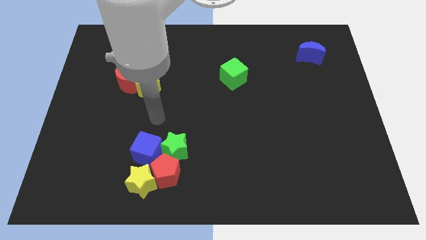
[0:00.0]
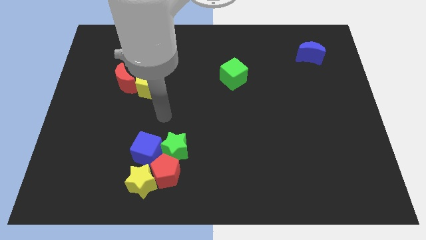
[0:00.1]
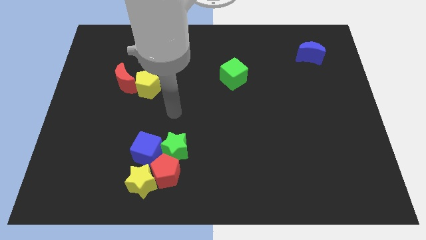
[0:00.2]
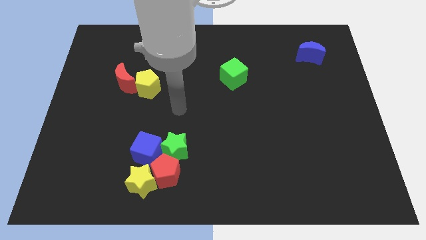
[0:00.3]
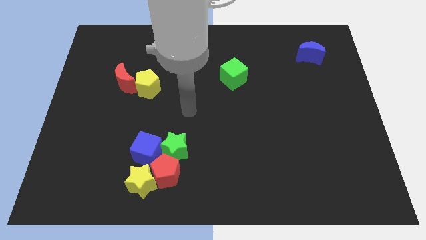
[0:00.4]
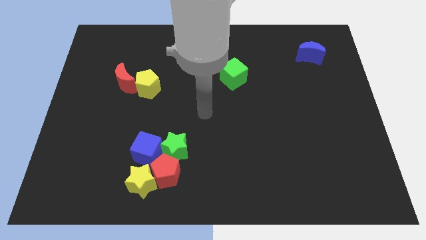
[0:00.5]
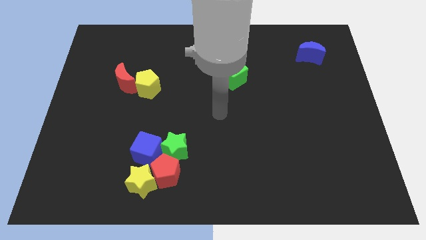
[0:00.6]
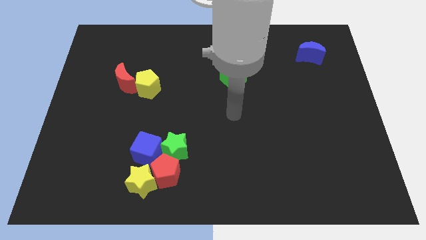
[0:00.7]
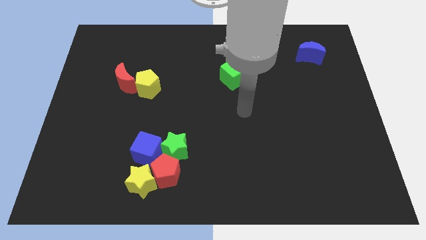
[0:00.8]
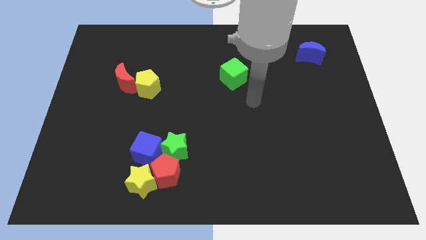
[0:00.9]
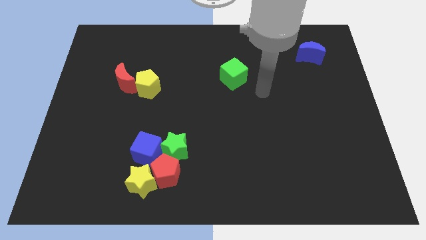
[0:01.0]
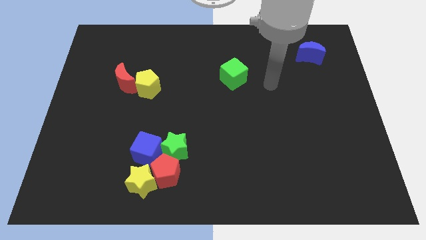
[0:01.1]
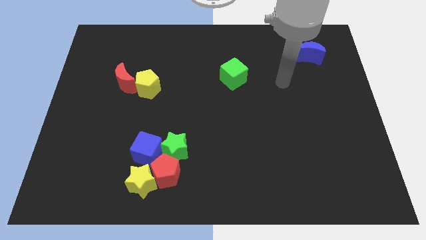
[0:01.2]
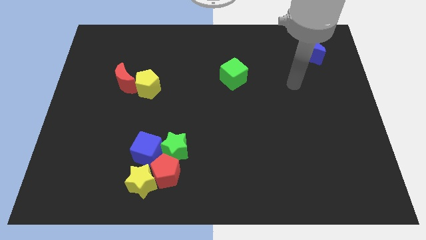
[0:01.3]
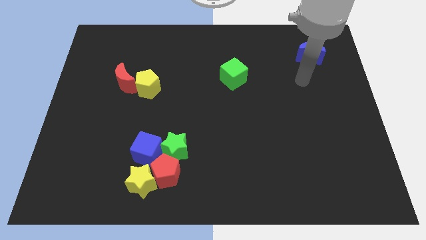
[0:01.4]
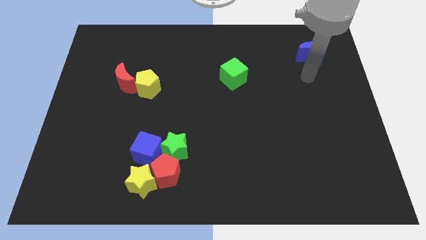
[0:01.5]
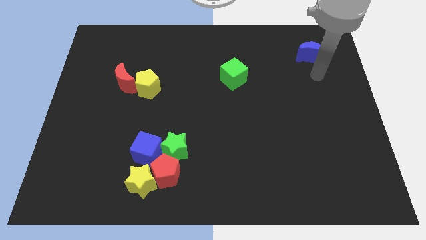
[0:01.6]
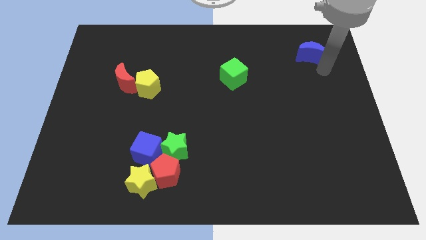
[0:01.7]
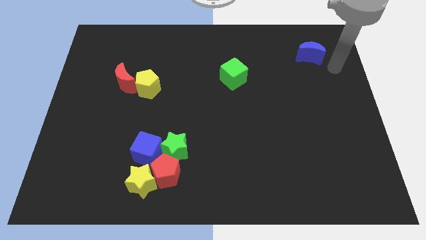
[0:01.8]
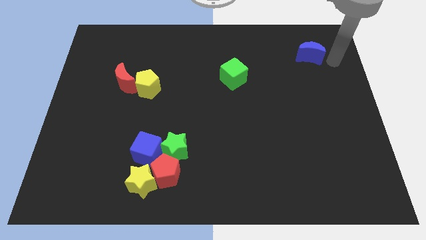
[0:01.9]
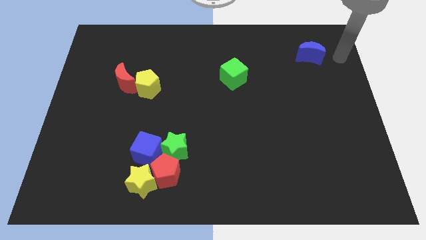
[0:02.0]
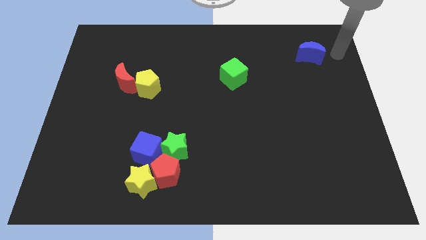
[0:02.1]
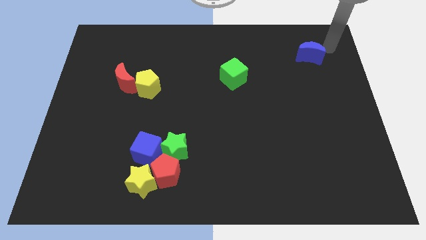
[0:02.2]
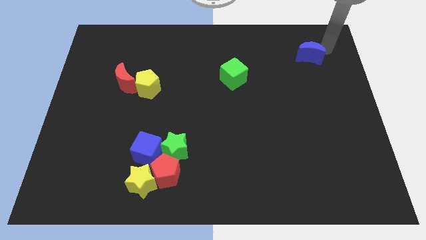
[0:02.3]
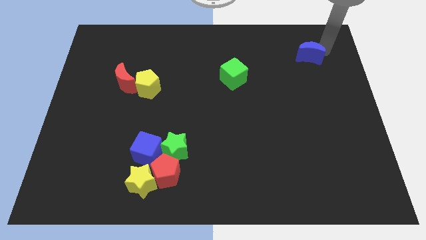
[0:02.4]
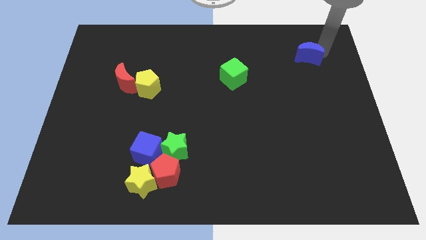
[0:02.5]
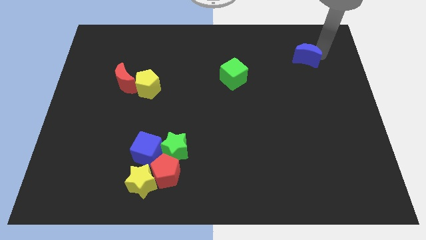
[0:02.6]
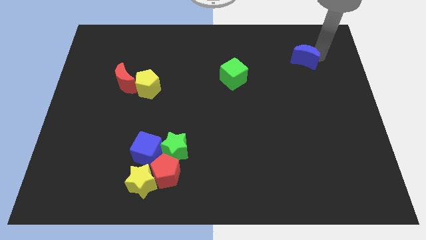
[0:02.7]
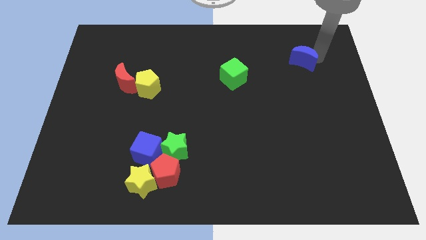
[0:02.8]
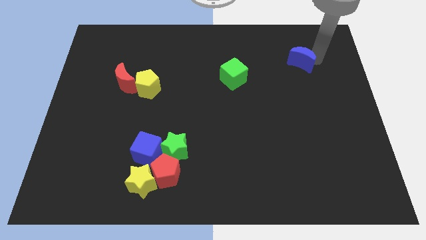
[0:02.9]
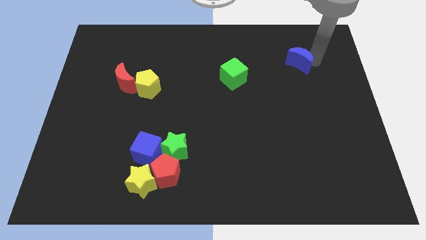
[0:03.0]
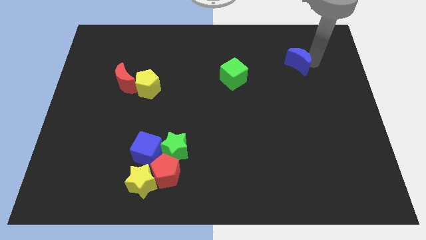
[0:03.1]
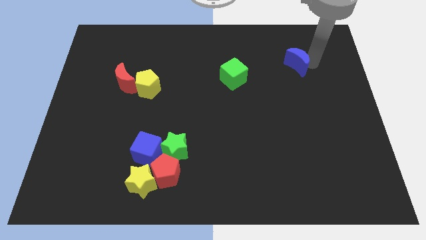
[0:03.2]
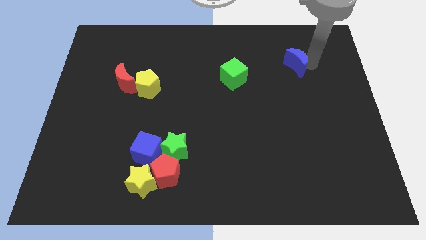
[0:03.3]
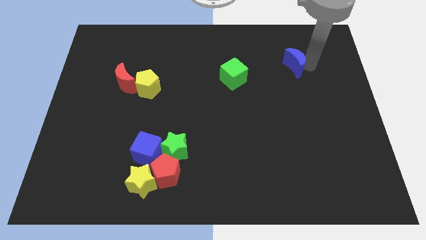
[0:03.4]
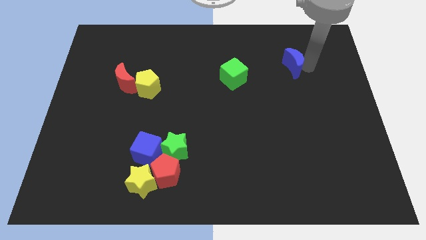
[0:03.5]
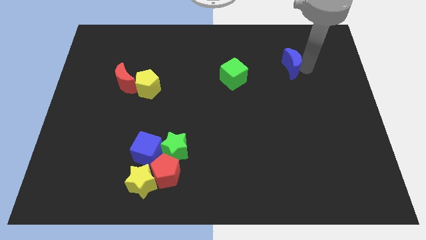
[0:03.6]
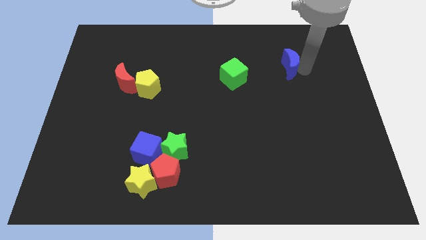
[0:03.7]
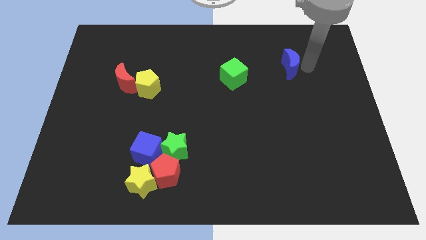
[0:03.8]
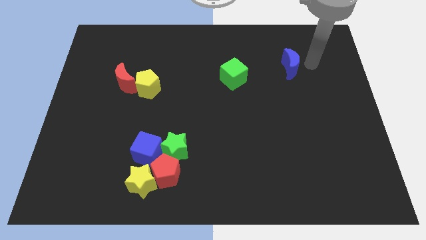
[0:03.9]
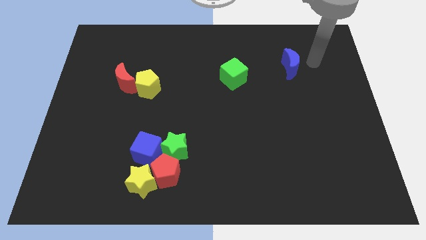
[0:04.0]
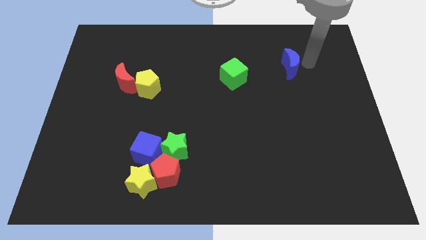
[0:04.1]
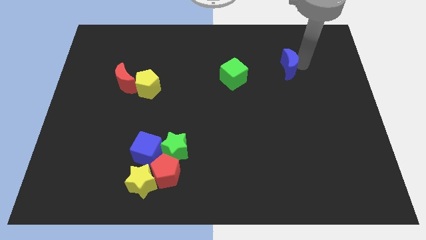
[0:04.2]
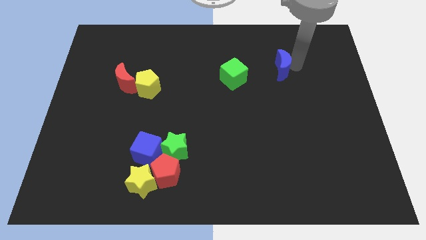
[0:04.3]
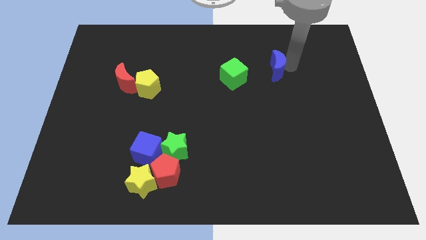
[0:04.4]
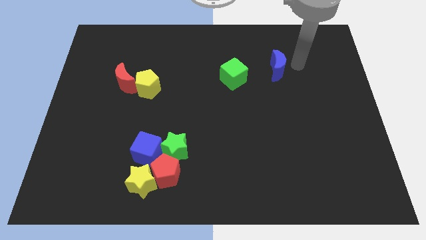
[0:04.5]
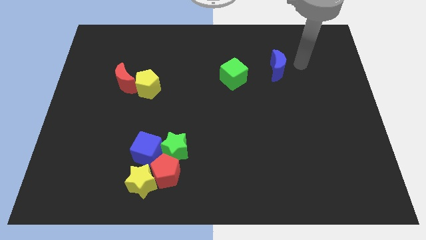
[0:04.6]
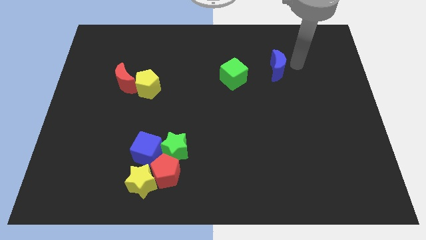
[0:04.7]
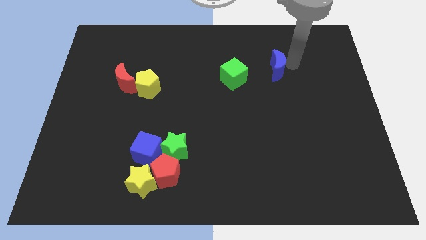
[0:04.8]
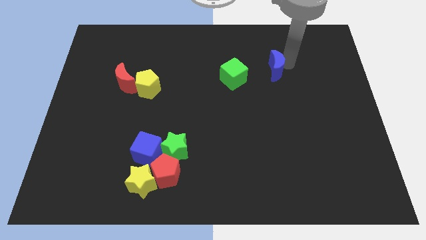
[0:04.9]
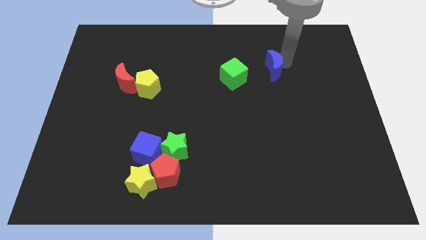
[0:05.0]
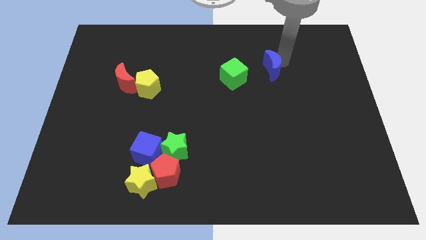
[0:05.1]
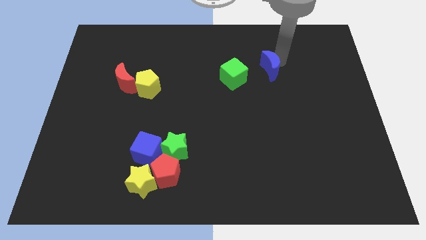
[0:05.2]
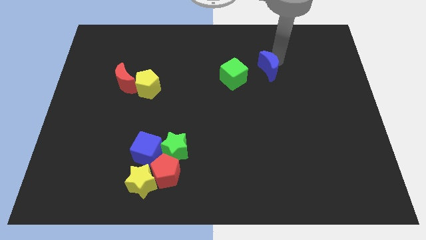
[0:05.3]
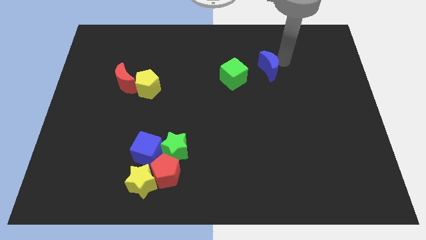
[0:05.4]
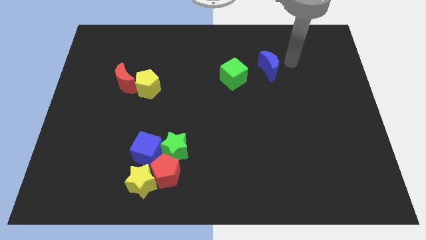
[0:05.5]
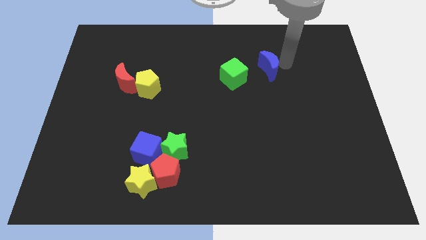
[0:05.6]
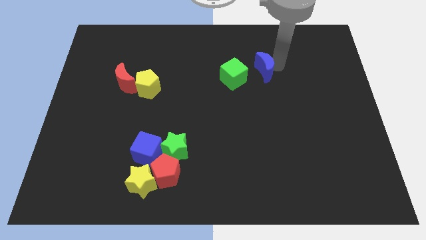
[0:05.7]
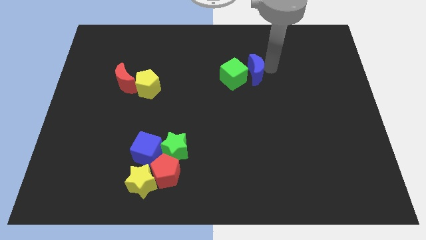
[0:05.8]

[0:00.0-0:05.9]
move the blue moon to the green cube

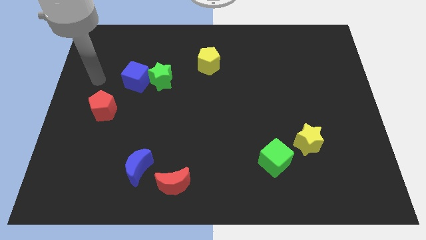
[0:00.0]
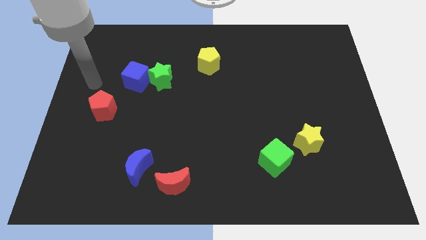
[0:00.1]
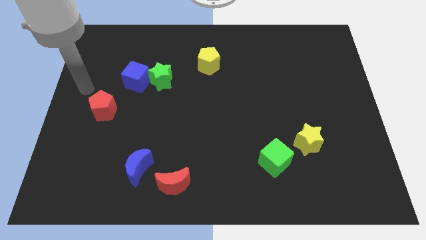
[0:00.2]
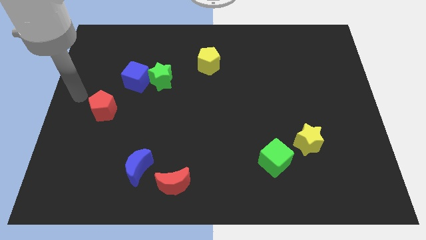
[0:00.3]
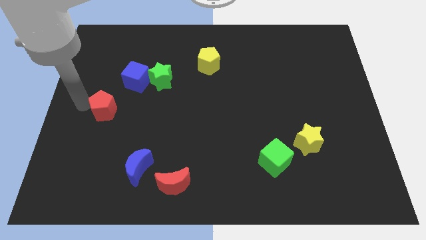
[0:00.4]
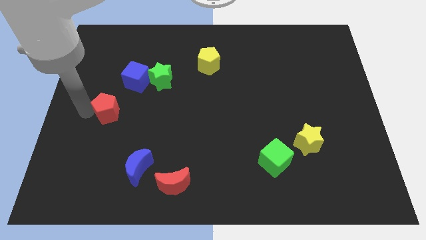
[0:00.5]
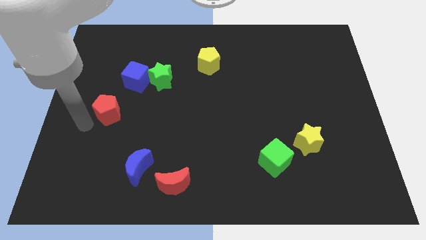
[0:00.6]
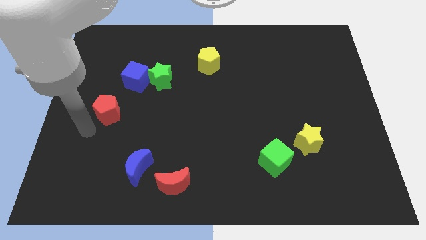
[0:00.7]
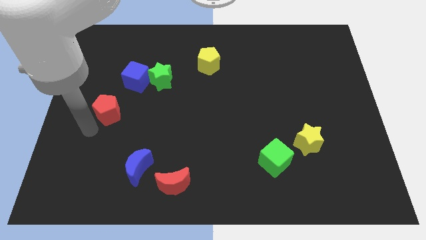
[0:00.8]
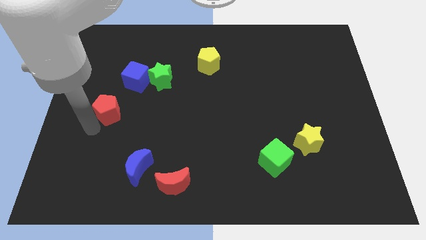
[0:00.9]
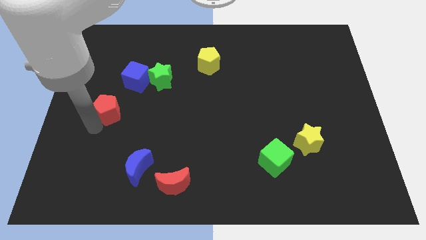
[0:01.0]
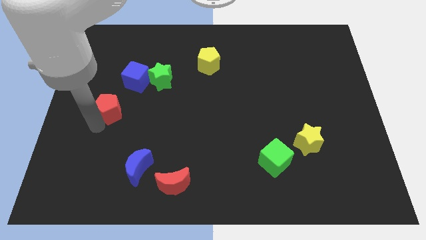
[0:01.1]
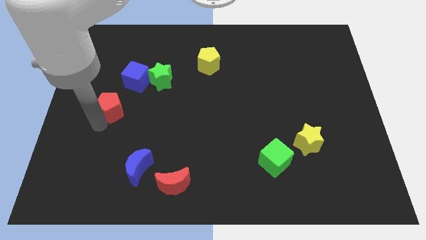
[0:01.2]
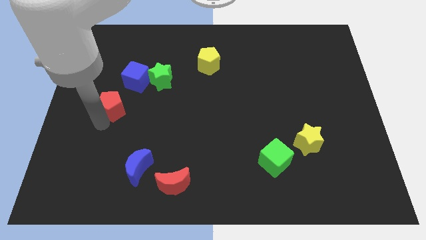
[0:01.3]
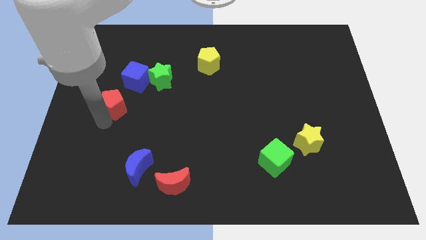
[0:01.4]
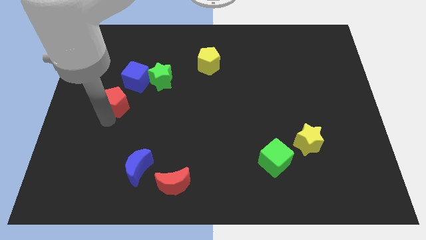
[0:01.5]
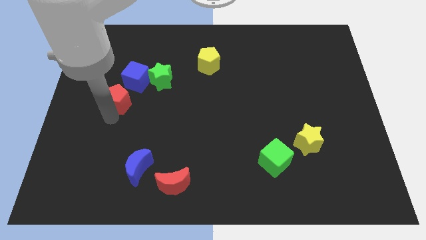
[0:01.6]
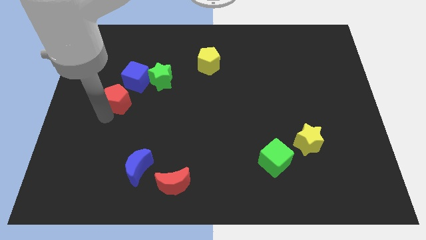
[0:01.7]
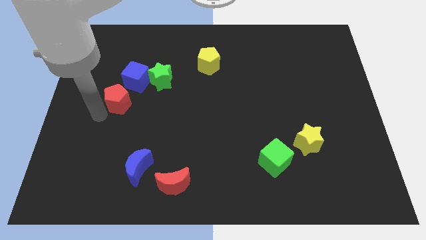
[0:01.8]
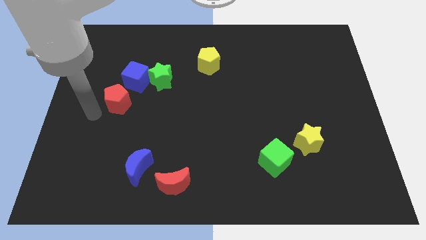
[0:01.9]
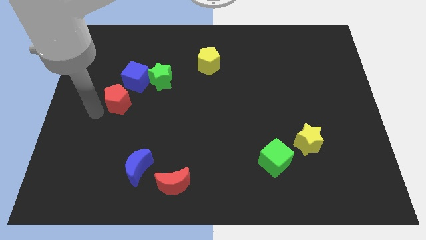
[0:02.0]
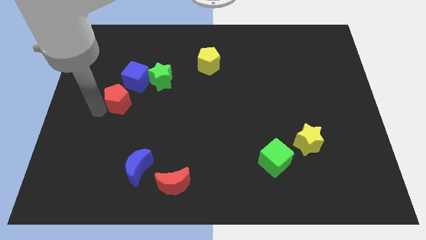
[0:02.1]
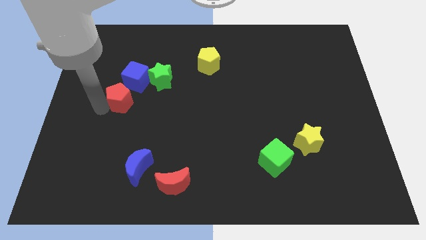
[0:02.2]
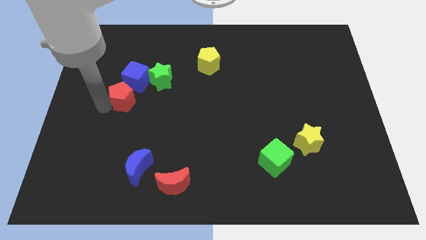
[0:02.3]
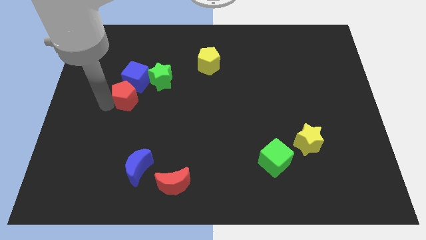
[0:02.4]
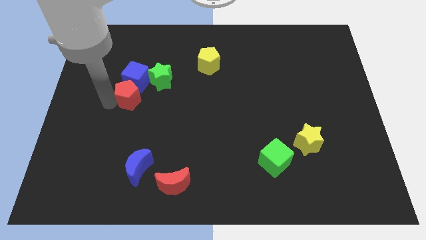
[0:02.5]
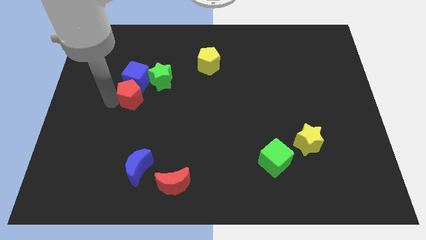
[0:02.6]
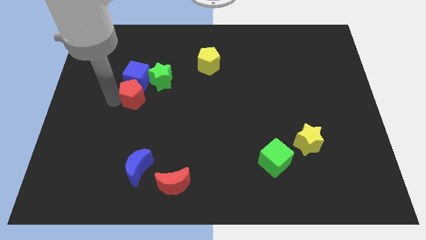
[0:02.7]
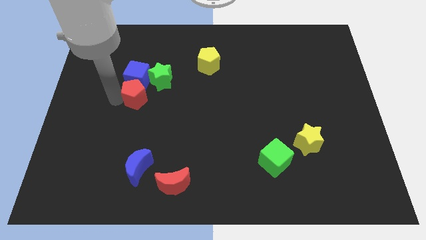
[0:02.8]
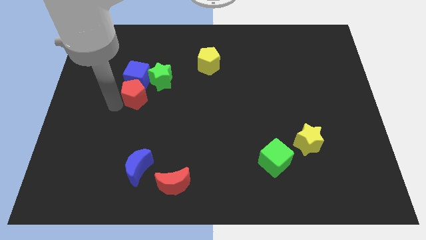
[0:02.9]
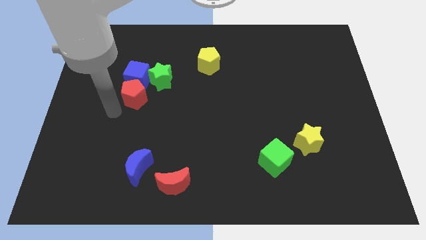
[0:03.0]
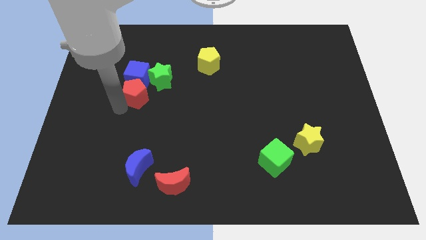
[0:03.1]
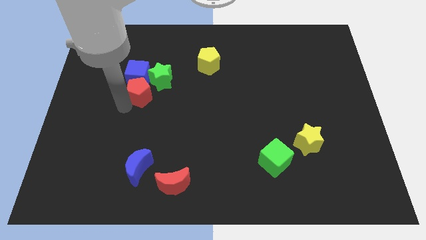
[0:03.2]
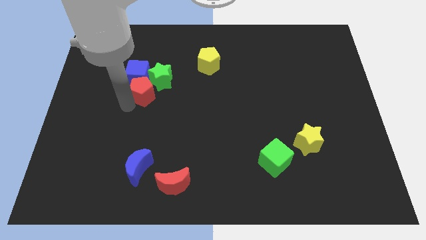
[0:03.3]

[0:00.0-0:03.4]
move the red pentagon close to the green star
